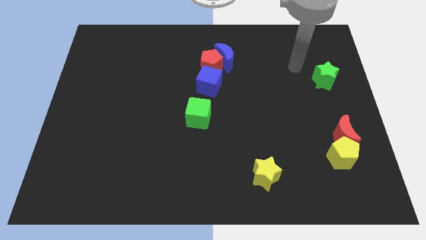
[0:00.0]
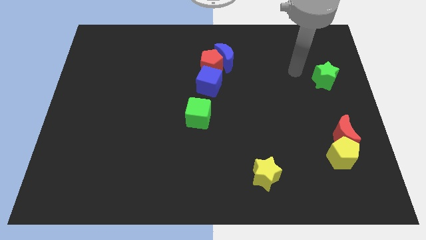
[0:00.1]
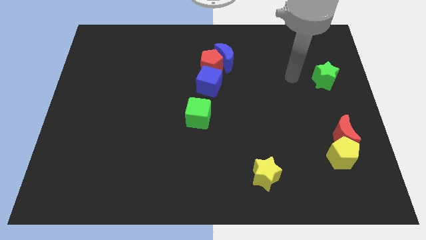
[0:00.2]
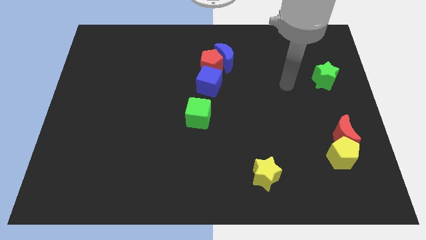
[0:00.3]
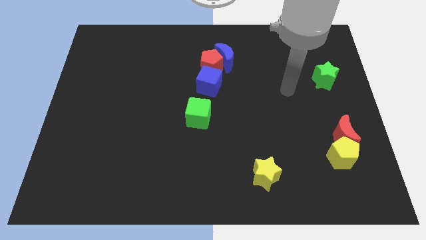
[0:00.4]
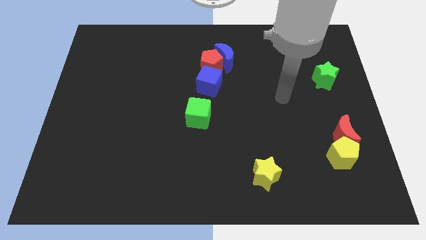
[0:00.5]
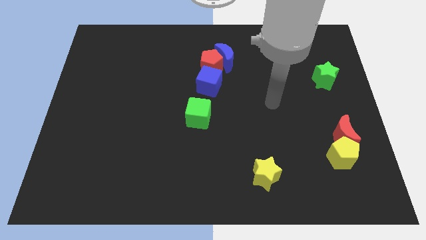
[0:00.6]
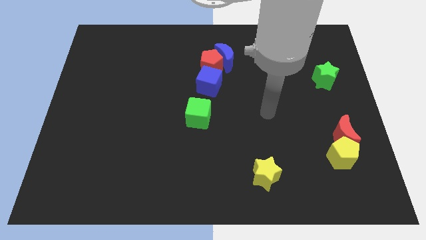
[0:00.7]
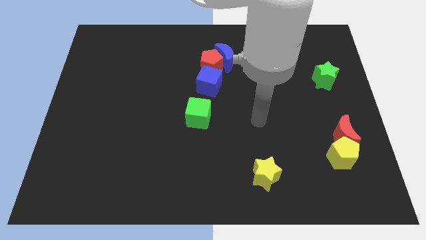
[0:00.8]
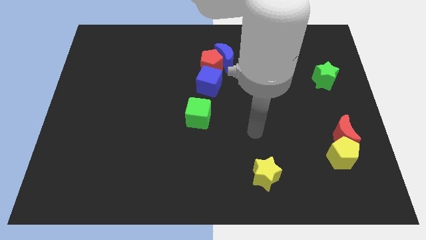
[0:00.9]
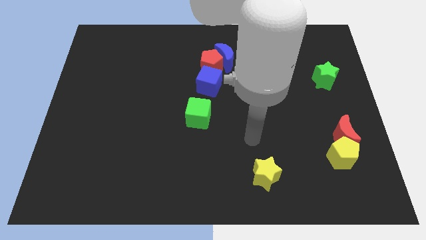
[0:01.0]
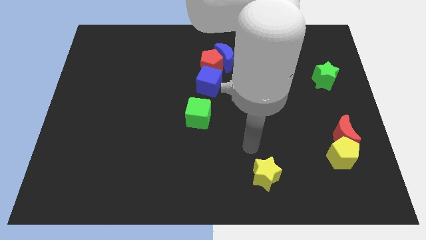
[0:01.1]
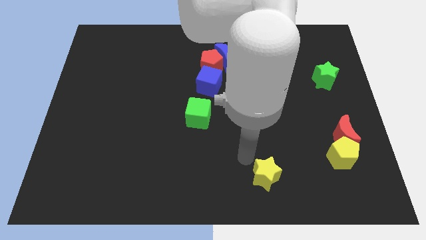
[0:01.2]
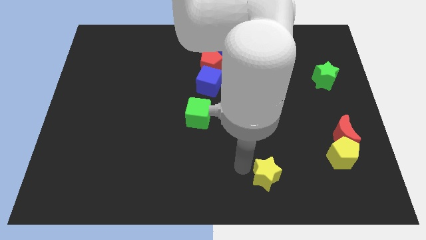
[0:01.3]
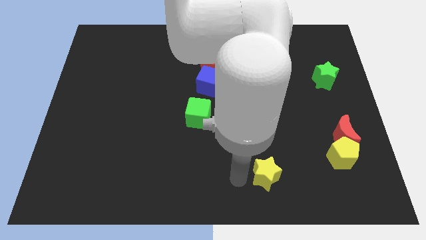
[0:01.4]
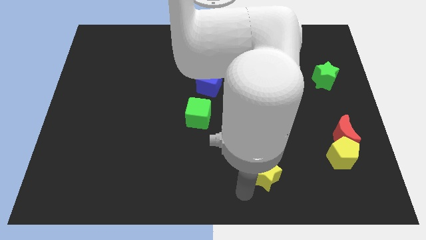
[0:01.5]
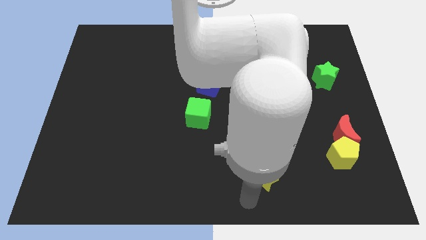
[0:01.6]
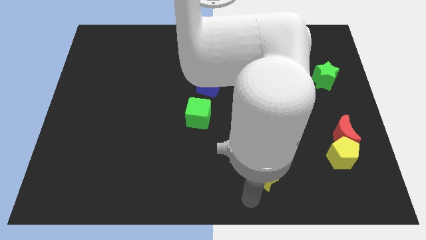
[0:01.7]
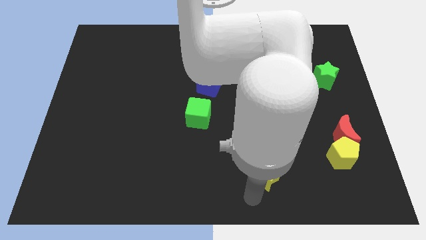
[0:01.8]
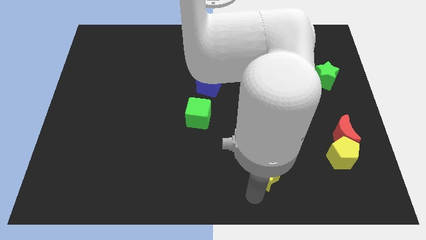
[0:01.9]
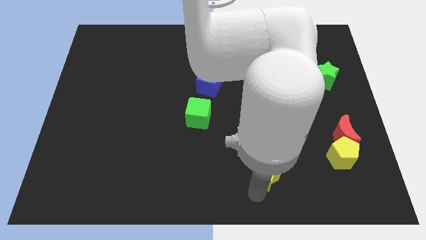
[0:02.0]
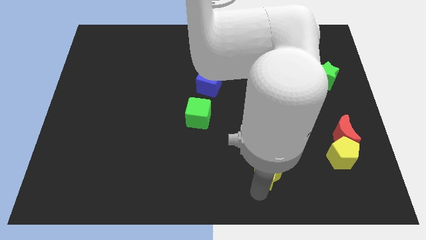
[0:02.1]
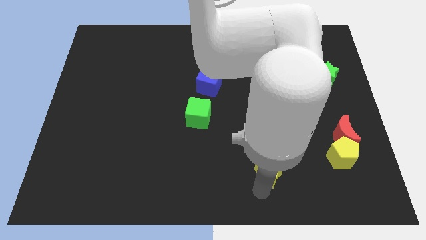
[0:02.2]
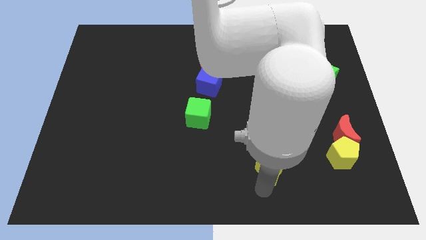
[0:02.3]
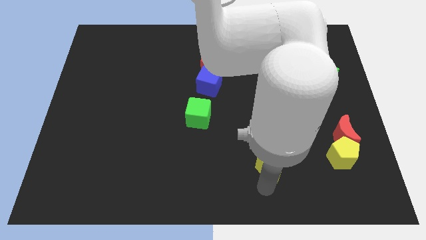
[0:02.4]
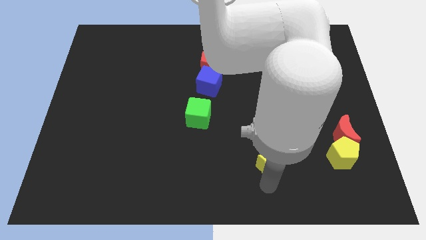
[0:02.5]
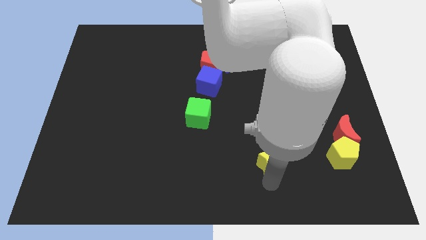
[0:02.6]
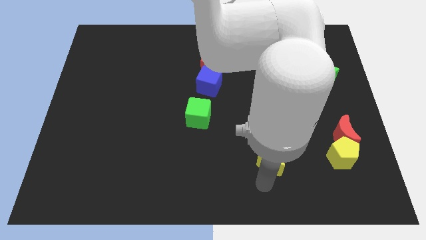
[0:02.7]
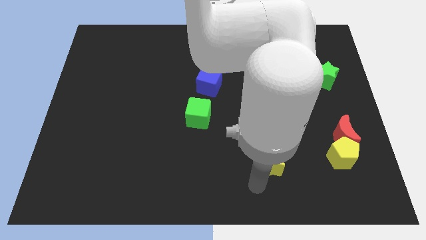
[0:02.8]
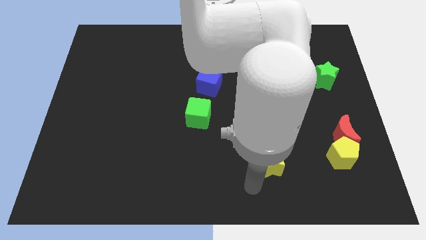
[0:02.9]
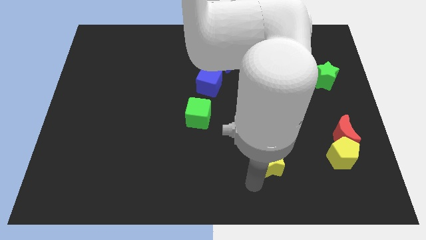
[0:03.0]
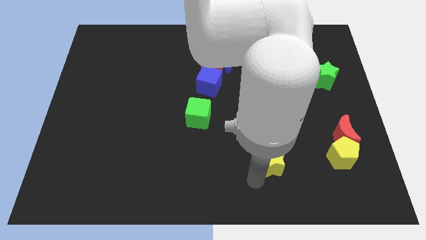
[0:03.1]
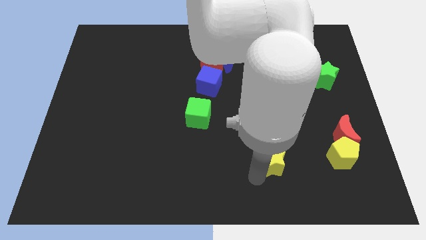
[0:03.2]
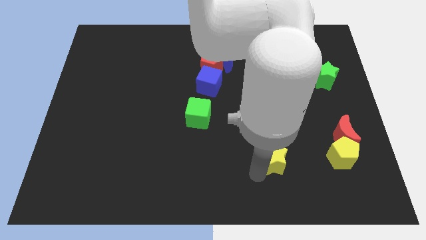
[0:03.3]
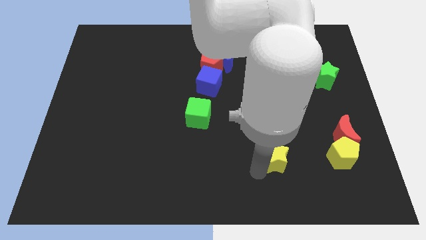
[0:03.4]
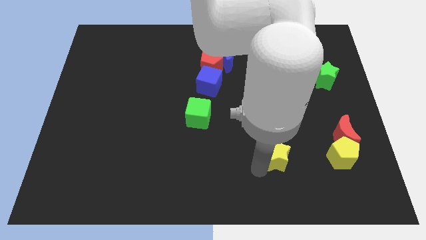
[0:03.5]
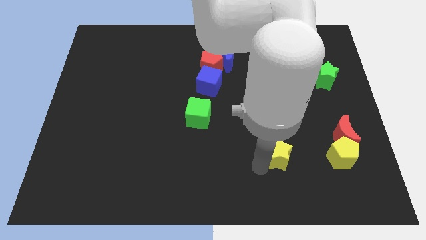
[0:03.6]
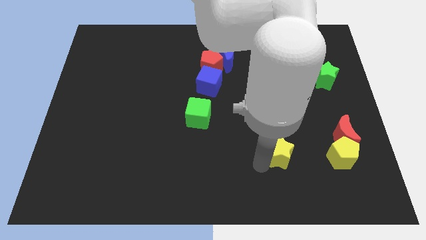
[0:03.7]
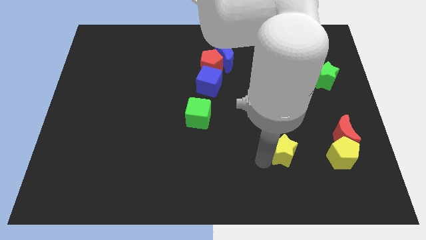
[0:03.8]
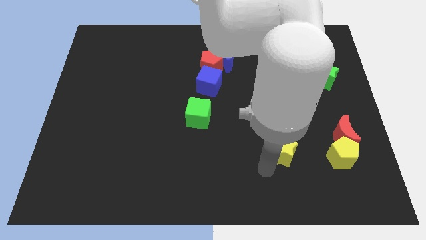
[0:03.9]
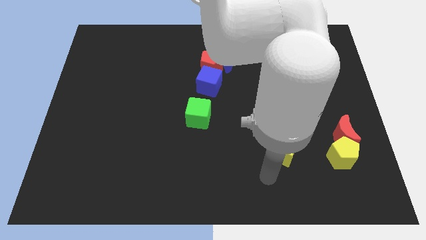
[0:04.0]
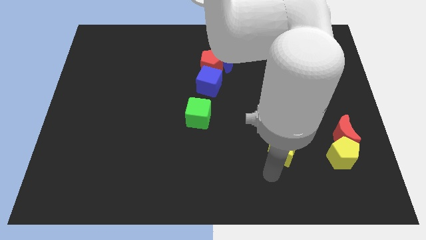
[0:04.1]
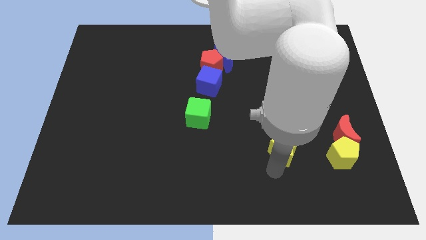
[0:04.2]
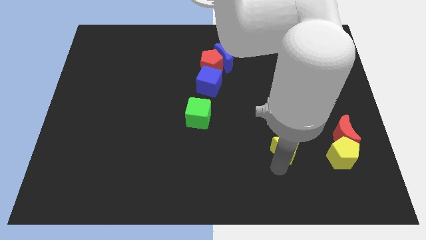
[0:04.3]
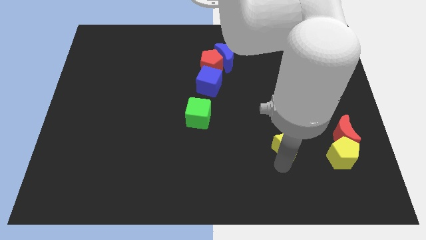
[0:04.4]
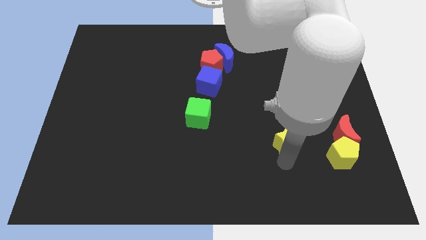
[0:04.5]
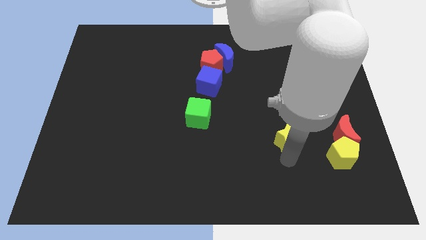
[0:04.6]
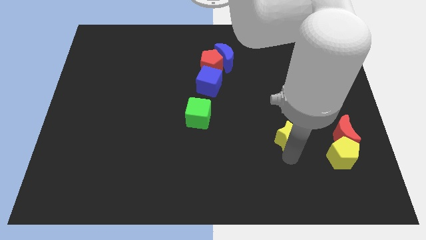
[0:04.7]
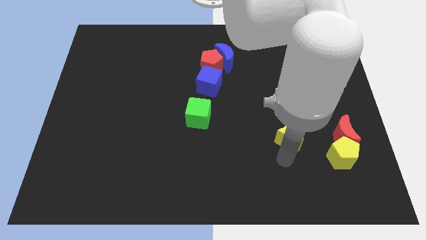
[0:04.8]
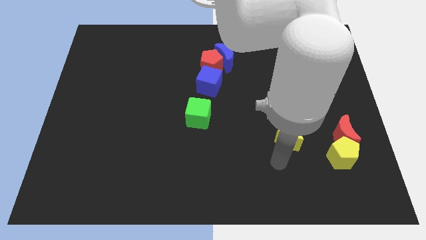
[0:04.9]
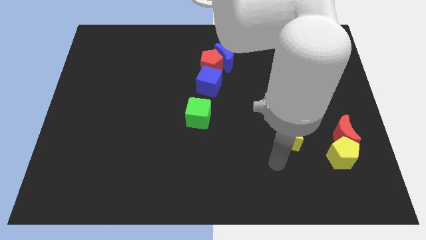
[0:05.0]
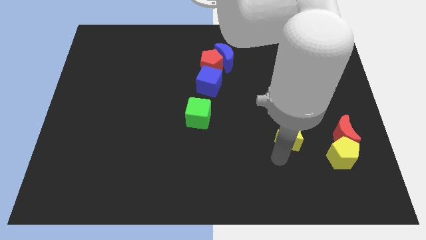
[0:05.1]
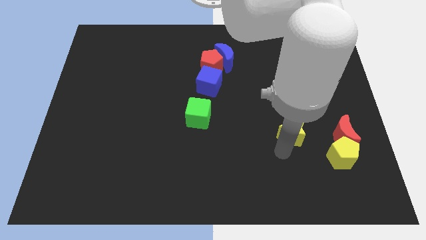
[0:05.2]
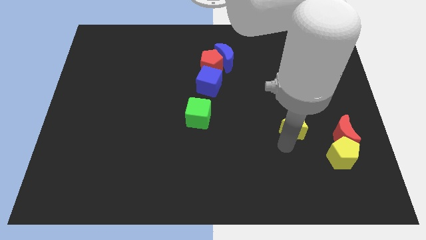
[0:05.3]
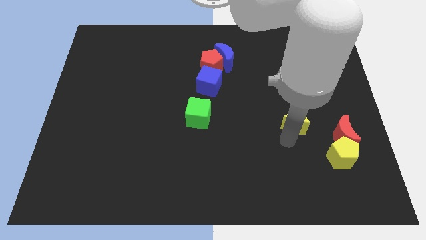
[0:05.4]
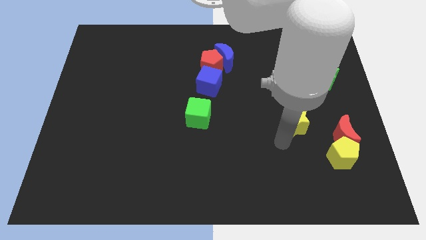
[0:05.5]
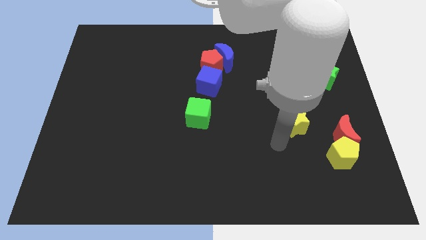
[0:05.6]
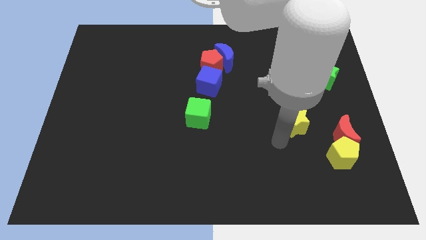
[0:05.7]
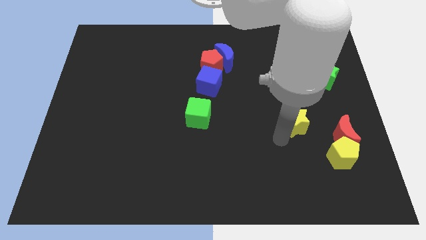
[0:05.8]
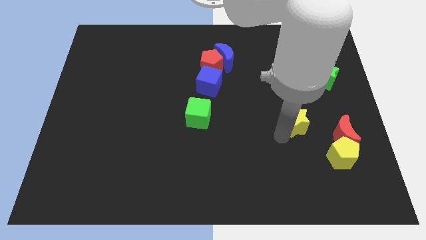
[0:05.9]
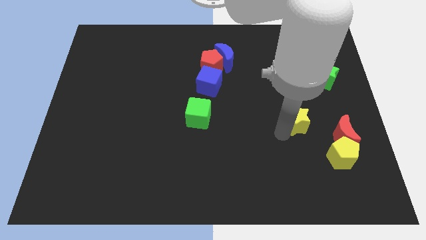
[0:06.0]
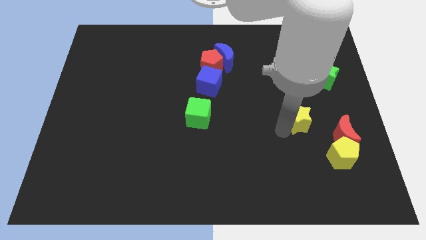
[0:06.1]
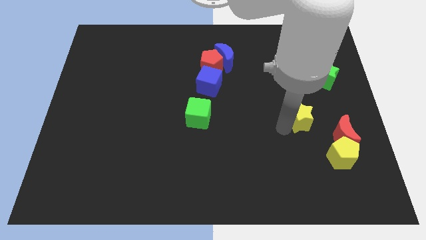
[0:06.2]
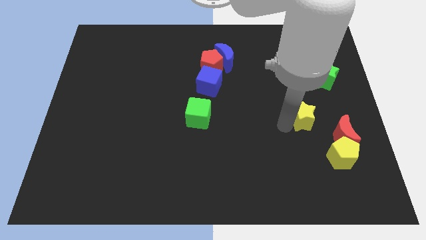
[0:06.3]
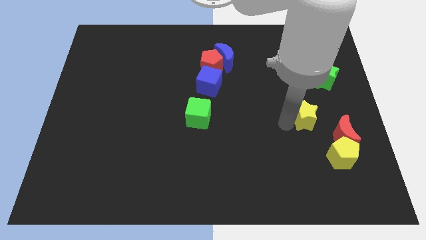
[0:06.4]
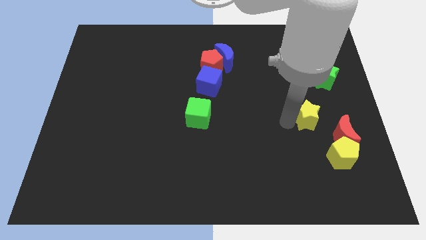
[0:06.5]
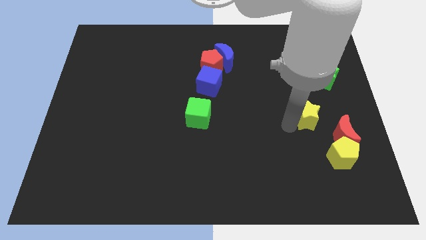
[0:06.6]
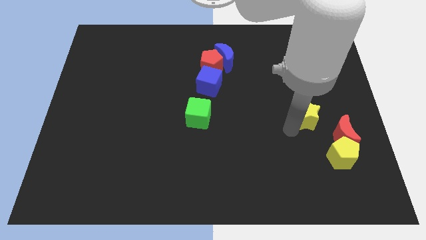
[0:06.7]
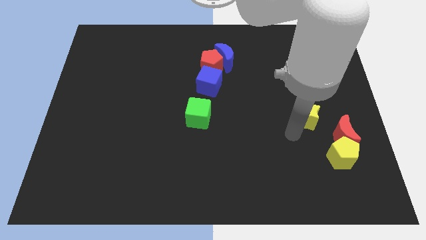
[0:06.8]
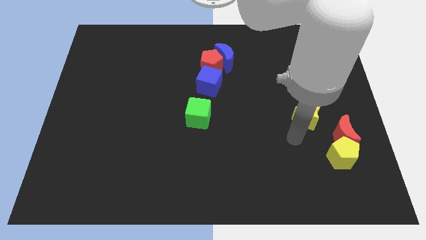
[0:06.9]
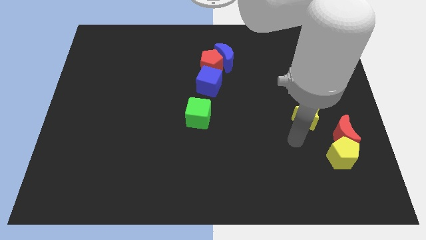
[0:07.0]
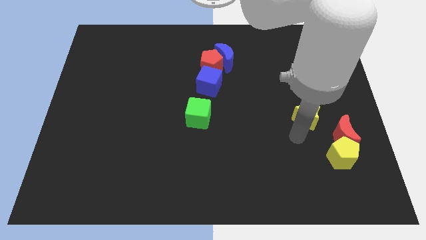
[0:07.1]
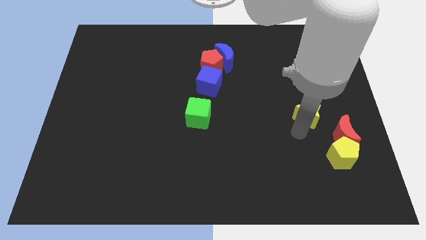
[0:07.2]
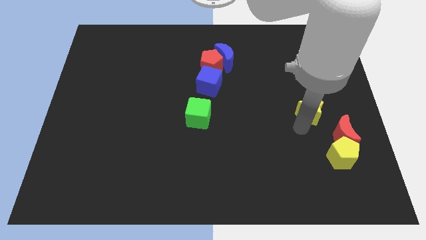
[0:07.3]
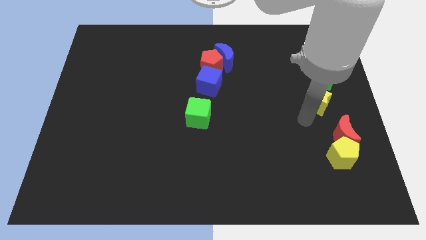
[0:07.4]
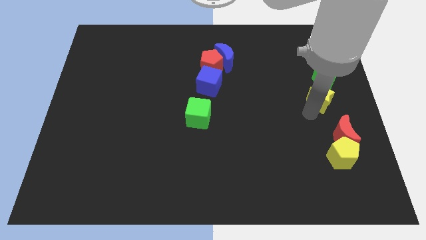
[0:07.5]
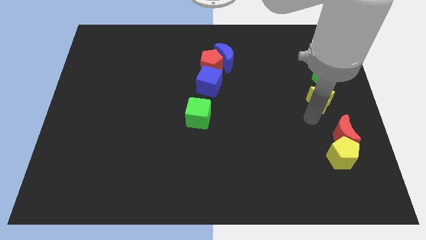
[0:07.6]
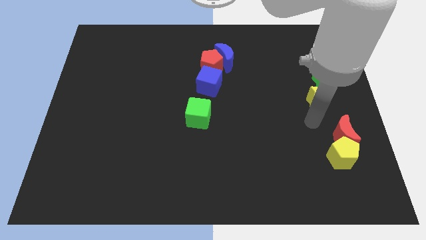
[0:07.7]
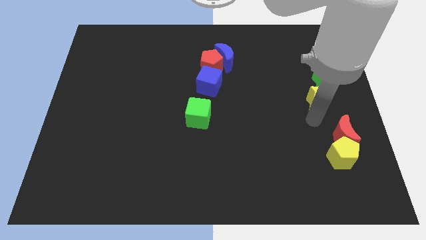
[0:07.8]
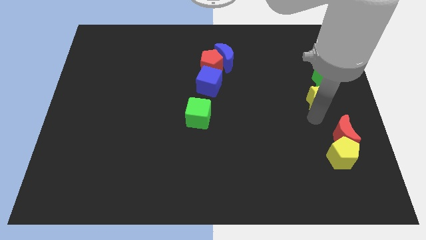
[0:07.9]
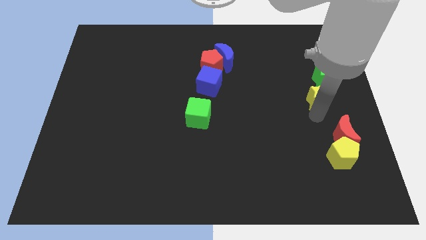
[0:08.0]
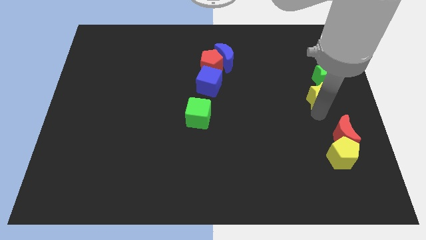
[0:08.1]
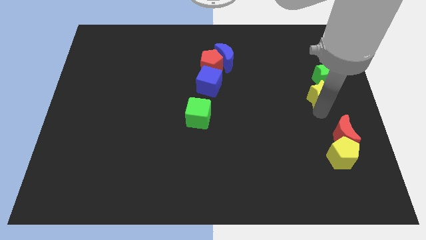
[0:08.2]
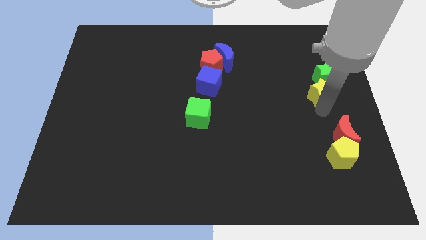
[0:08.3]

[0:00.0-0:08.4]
push the yellow star next to the green star
